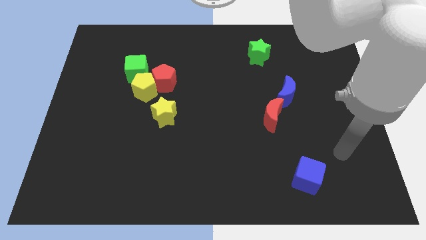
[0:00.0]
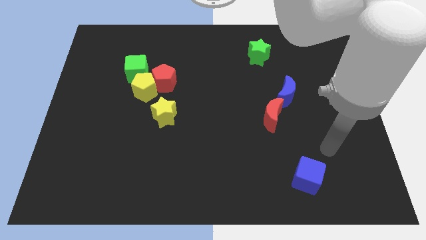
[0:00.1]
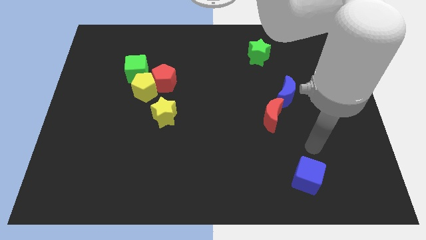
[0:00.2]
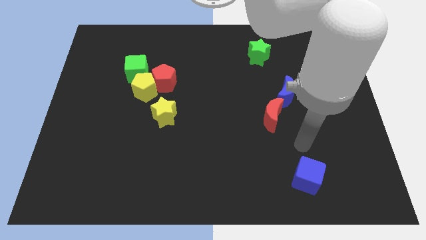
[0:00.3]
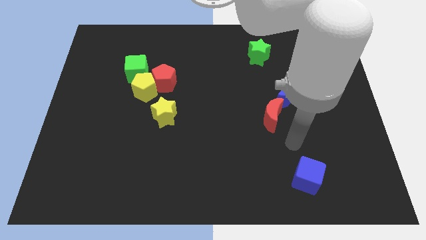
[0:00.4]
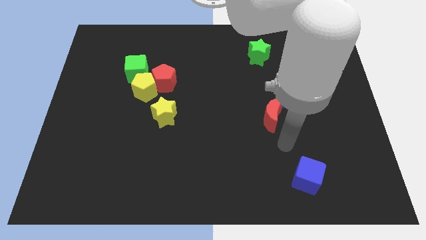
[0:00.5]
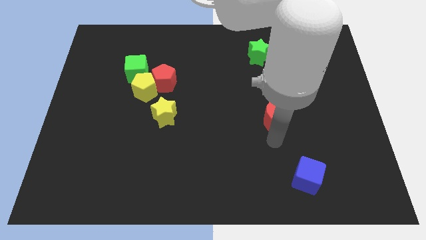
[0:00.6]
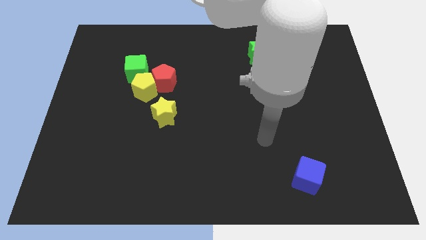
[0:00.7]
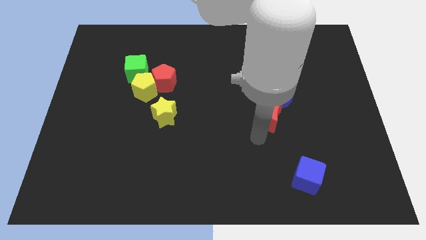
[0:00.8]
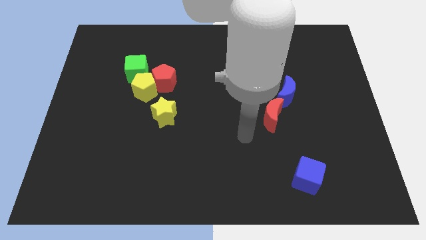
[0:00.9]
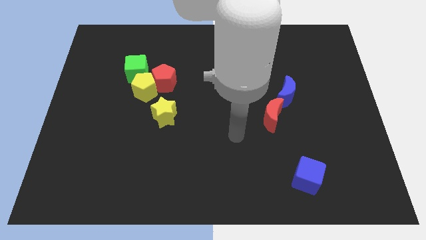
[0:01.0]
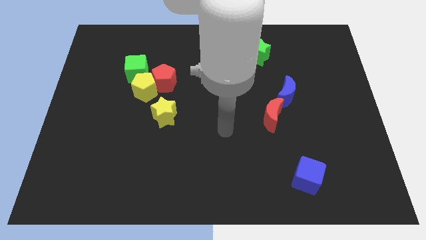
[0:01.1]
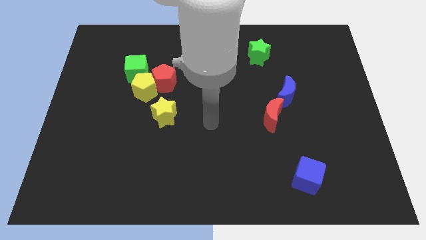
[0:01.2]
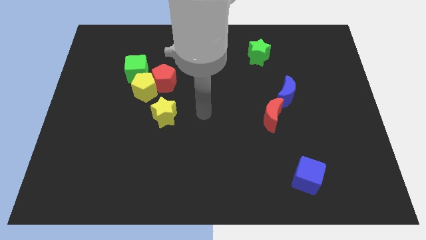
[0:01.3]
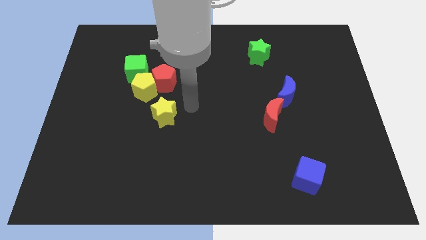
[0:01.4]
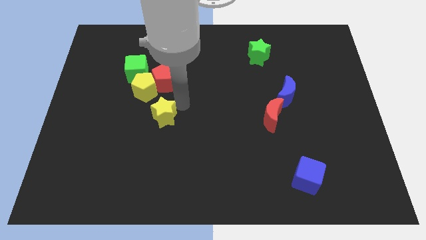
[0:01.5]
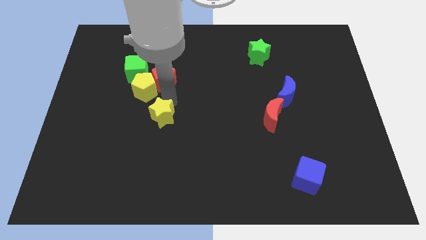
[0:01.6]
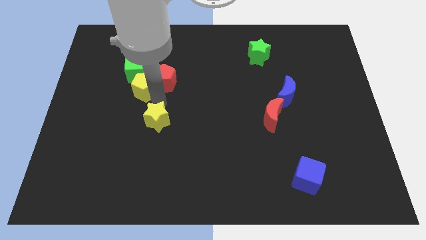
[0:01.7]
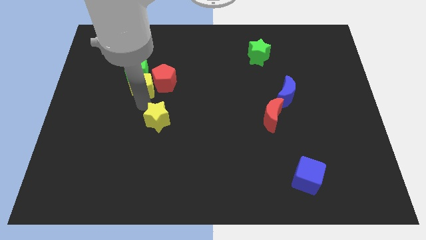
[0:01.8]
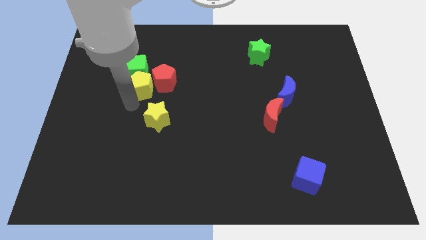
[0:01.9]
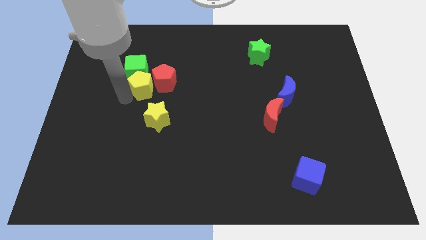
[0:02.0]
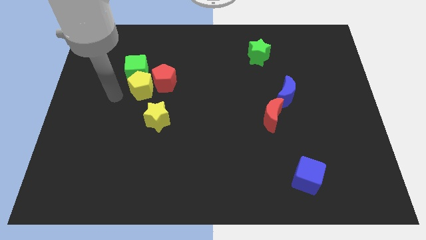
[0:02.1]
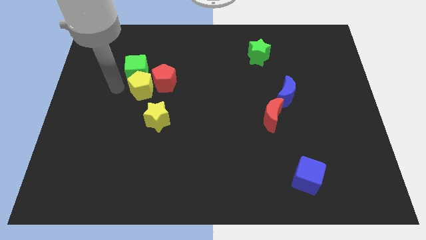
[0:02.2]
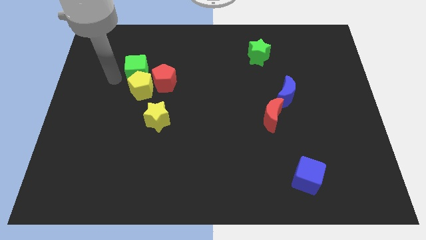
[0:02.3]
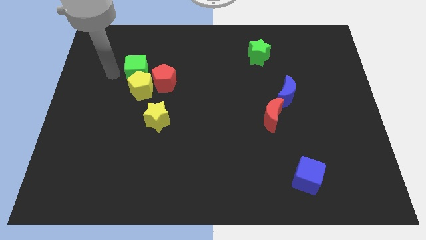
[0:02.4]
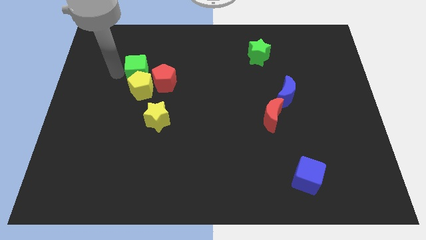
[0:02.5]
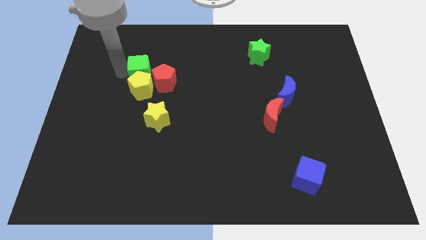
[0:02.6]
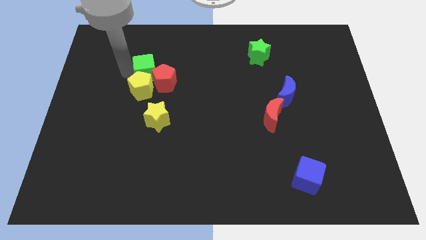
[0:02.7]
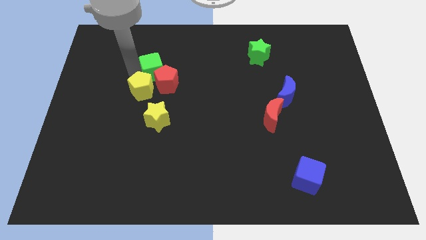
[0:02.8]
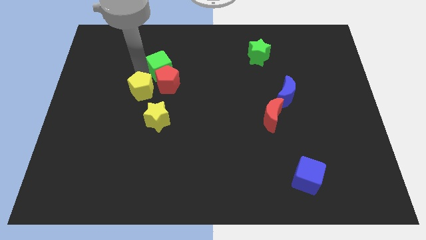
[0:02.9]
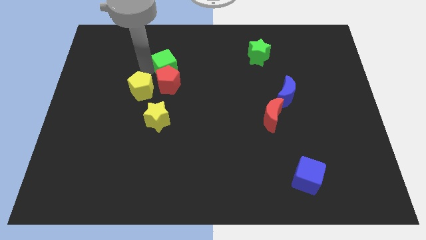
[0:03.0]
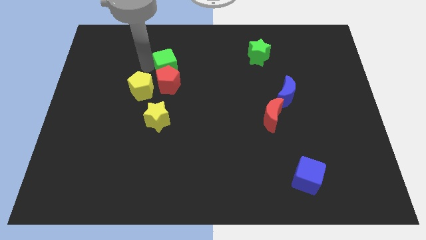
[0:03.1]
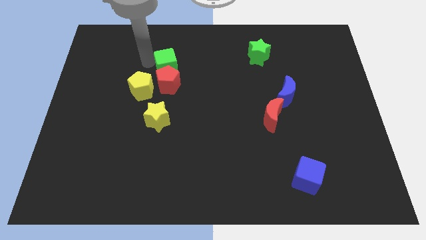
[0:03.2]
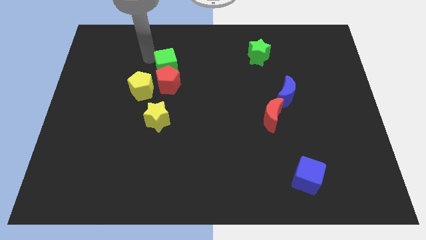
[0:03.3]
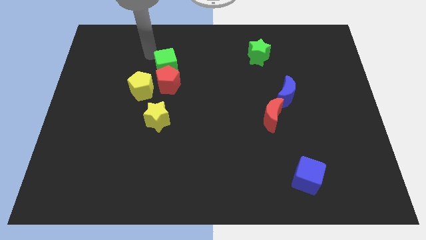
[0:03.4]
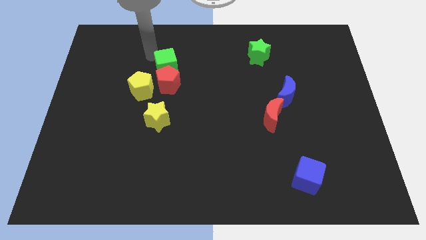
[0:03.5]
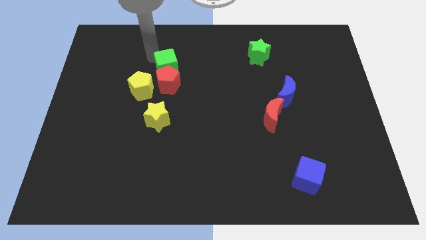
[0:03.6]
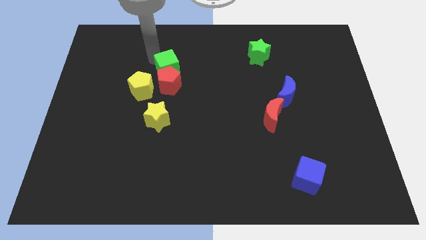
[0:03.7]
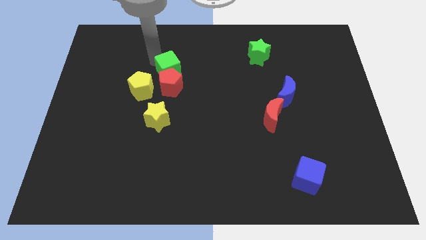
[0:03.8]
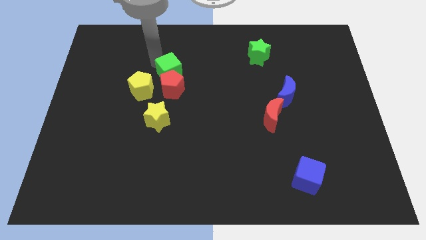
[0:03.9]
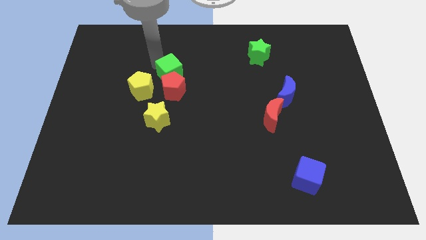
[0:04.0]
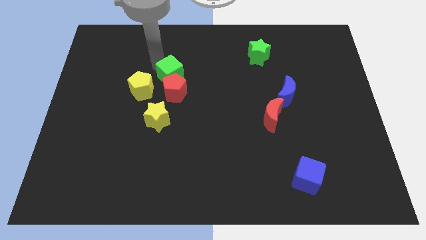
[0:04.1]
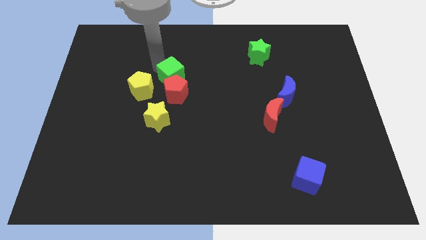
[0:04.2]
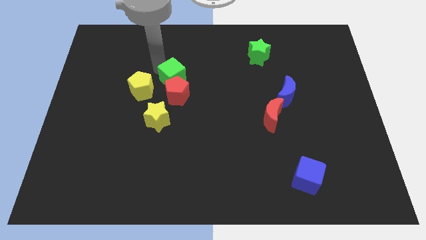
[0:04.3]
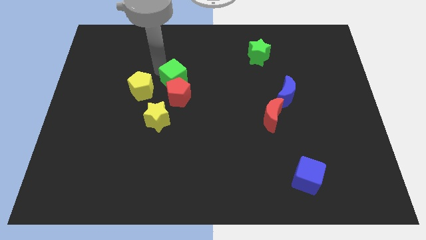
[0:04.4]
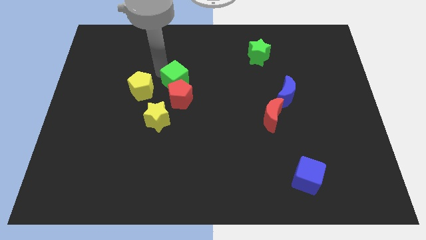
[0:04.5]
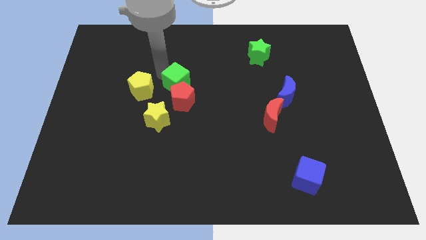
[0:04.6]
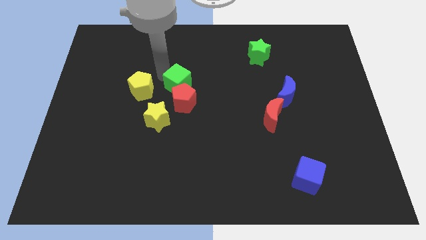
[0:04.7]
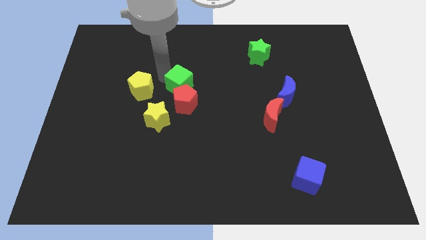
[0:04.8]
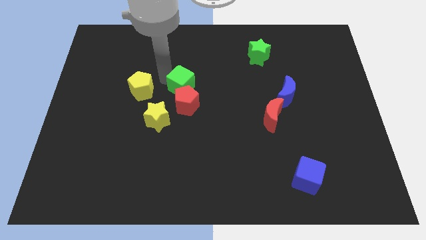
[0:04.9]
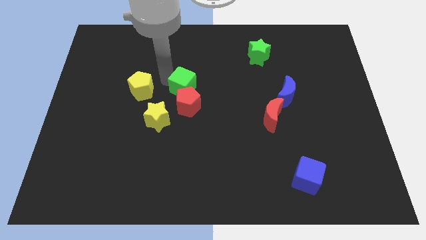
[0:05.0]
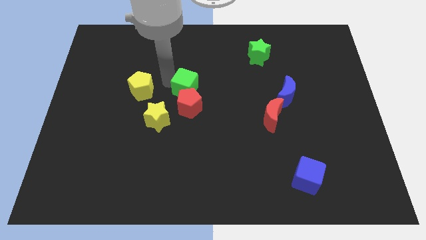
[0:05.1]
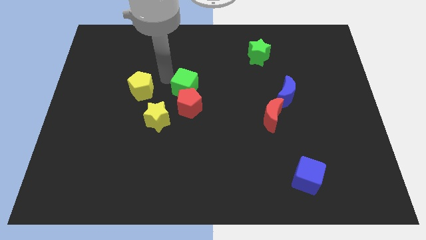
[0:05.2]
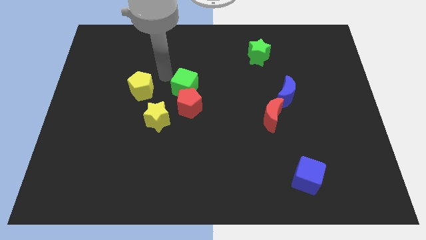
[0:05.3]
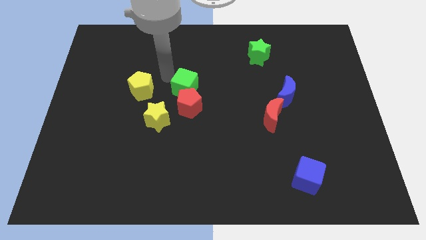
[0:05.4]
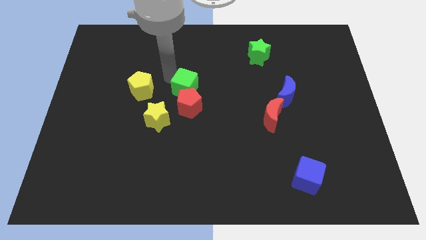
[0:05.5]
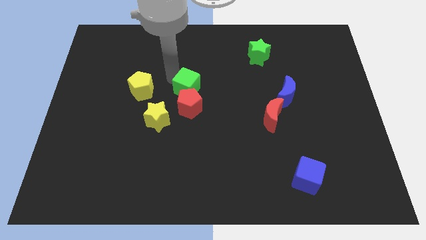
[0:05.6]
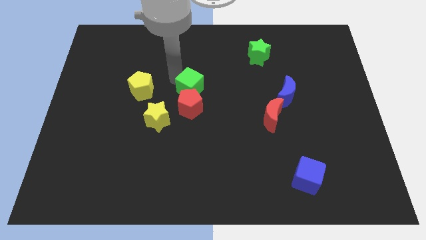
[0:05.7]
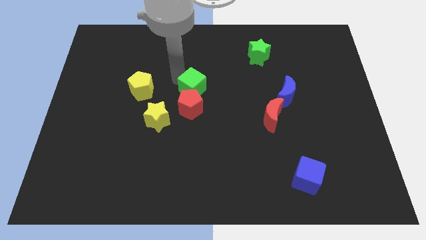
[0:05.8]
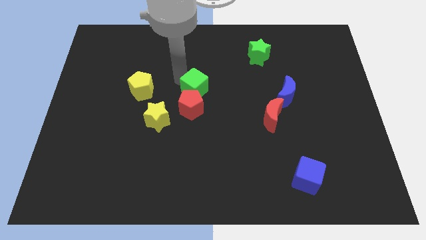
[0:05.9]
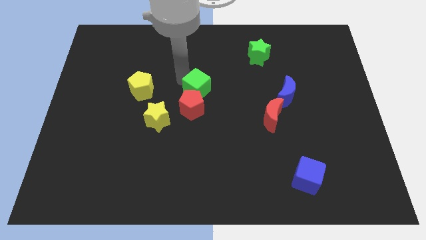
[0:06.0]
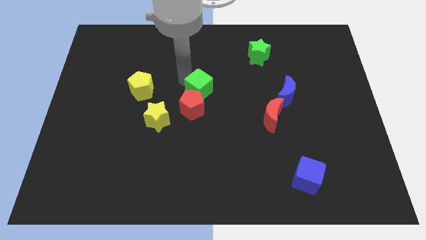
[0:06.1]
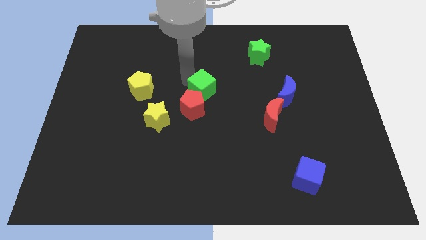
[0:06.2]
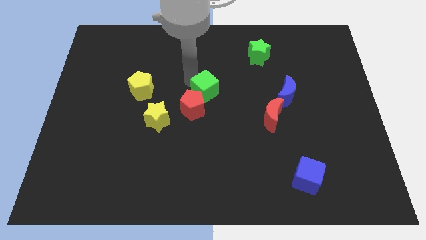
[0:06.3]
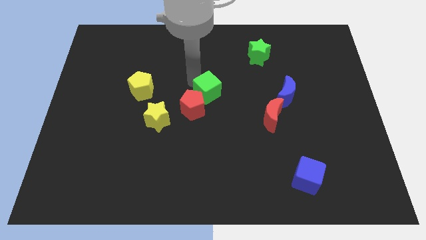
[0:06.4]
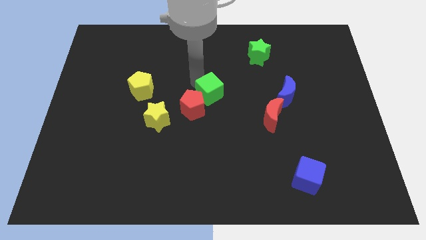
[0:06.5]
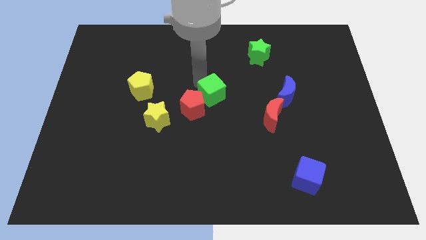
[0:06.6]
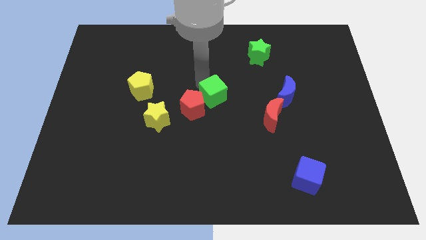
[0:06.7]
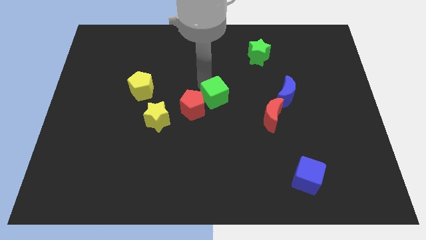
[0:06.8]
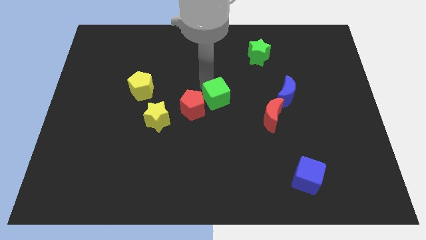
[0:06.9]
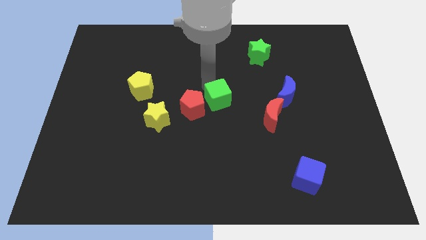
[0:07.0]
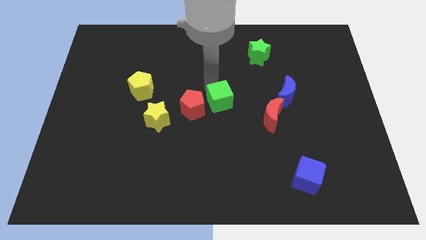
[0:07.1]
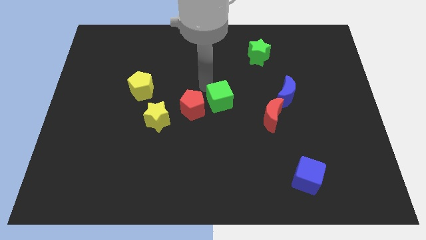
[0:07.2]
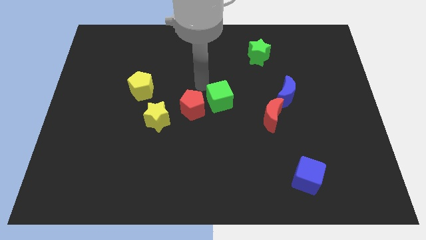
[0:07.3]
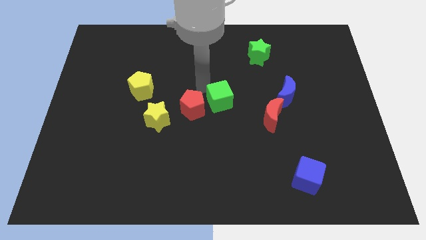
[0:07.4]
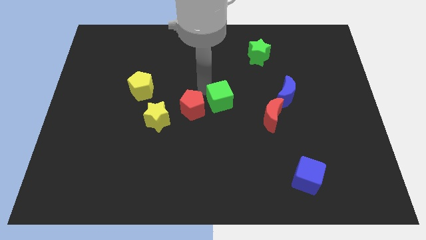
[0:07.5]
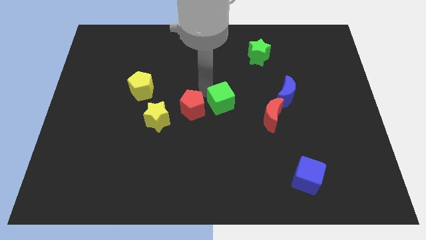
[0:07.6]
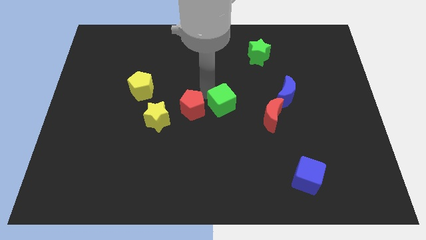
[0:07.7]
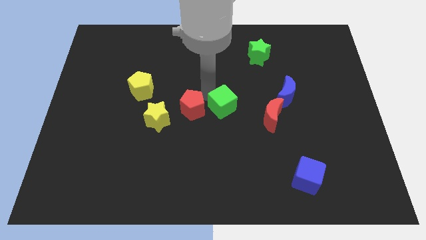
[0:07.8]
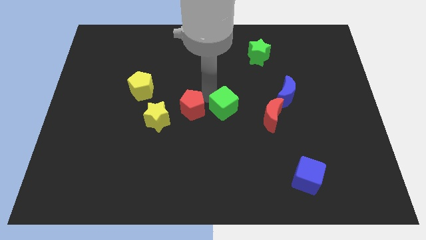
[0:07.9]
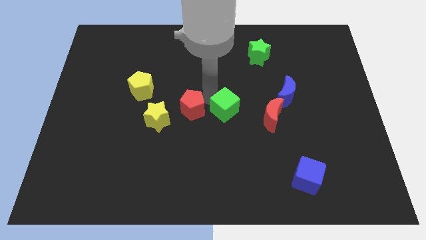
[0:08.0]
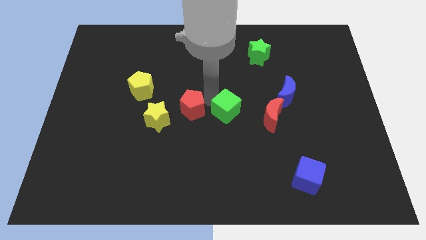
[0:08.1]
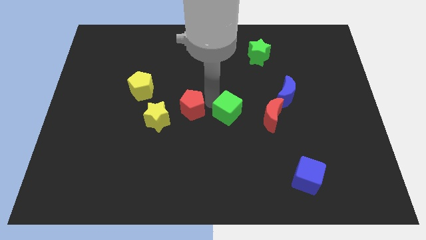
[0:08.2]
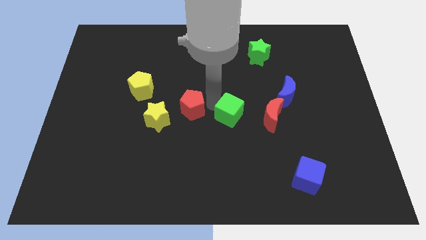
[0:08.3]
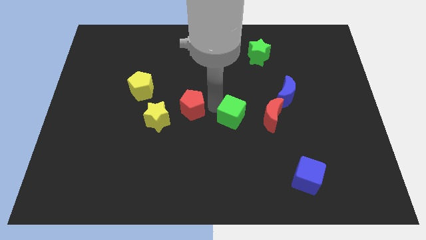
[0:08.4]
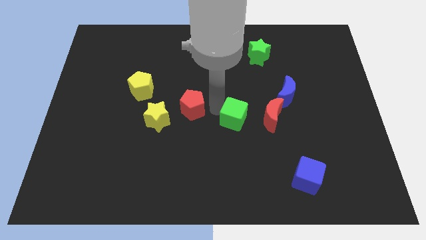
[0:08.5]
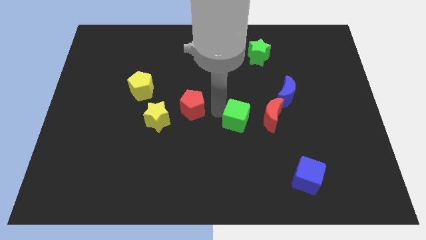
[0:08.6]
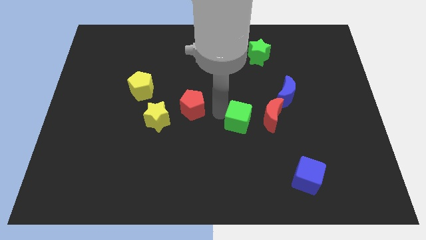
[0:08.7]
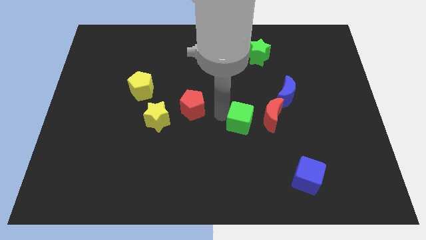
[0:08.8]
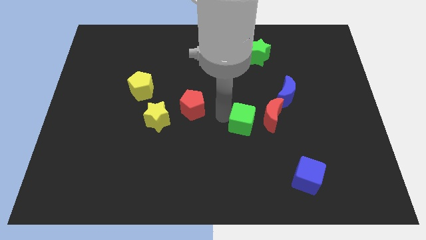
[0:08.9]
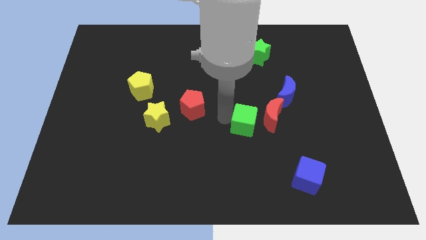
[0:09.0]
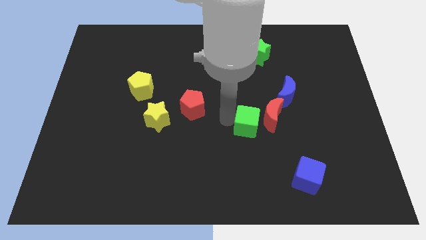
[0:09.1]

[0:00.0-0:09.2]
push the green cube diagonally down and to the left of the blue moon
